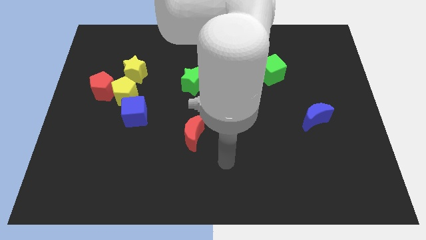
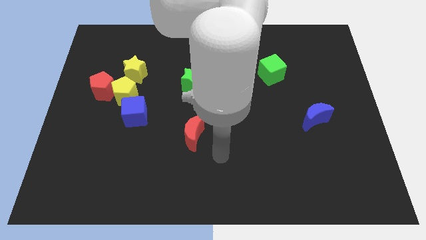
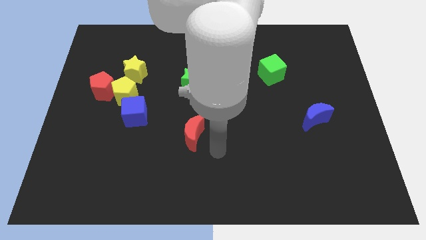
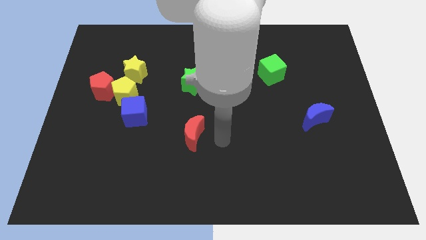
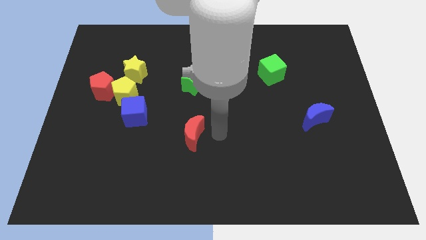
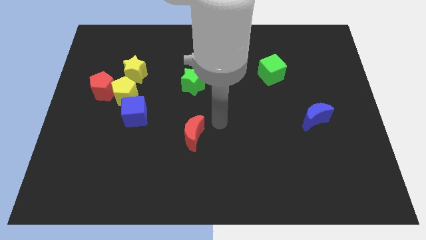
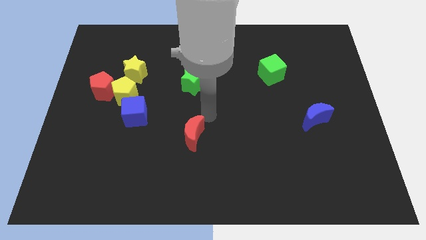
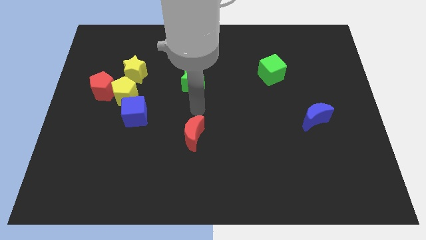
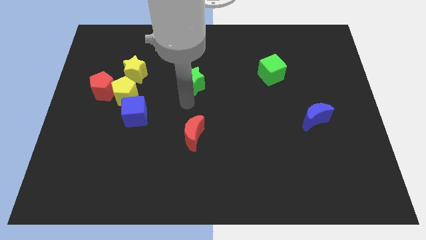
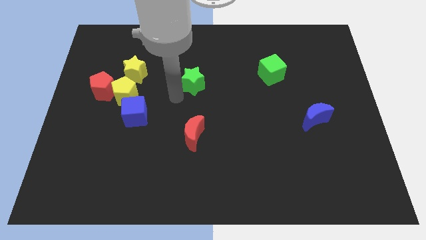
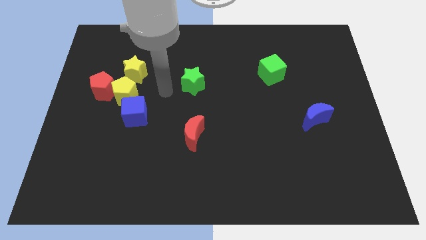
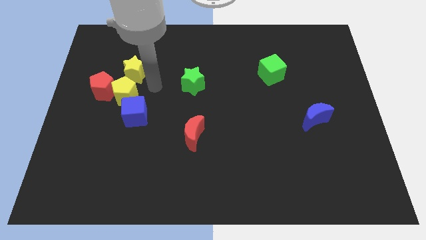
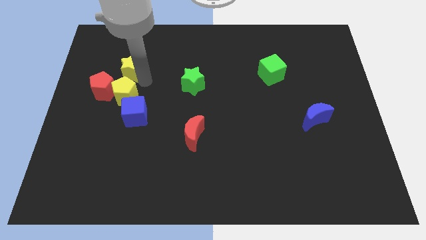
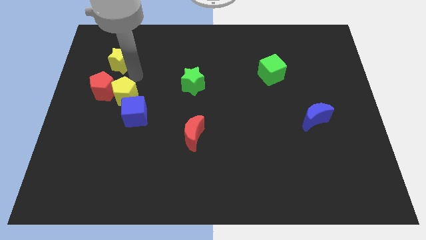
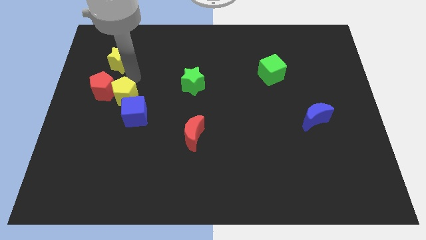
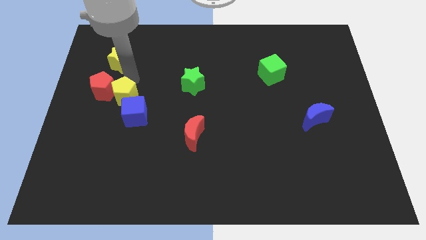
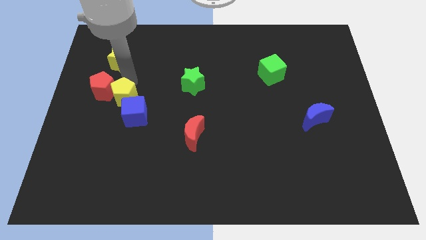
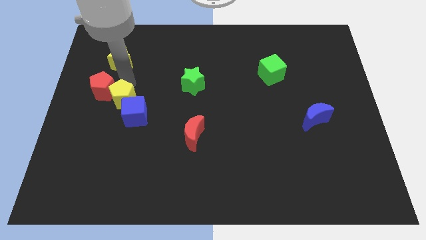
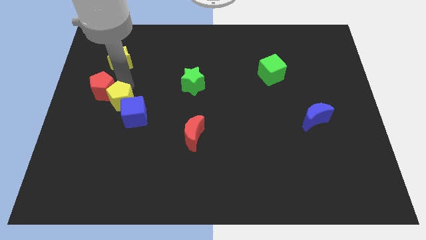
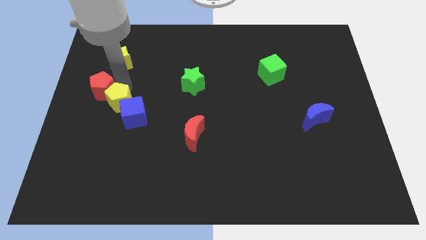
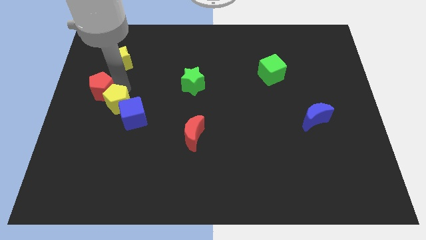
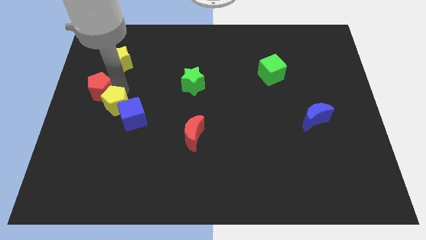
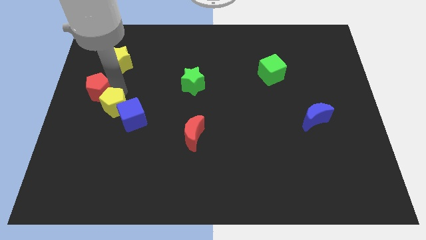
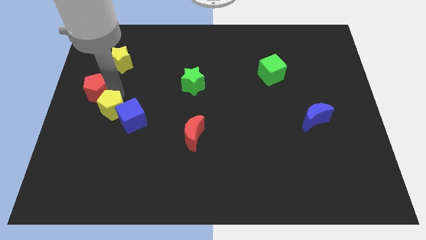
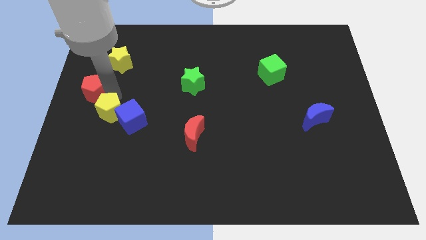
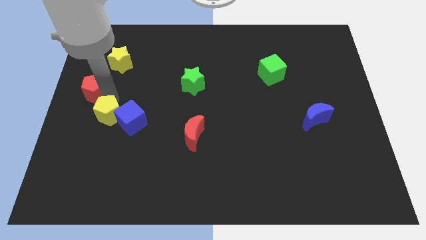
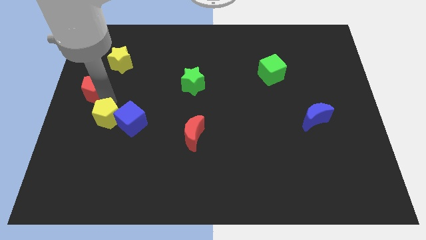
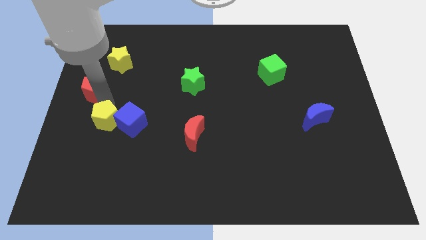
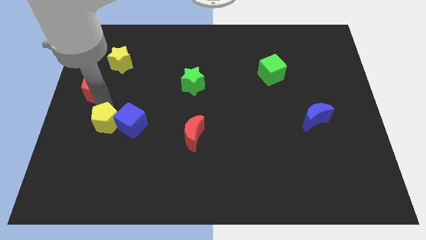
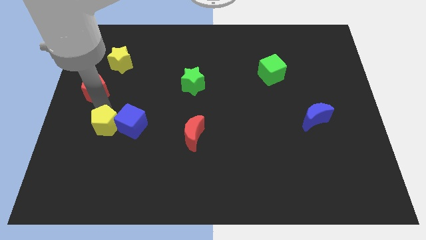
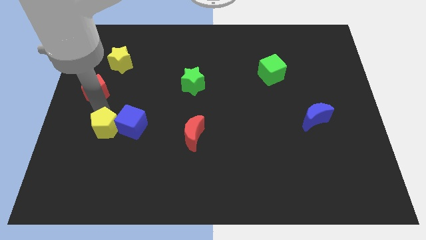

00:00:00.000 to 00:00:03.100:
separate the yellow pentagon from the red pentagon, blue cube, and yellow star

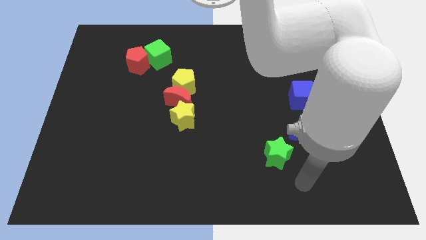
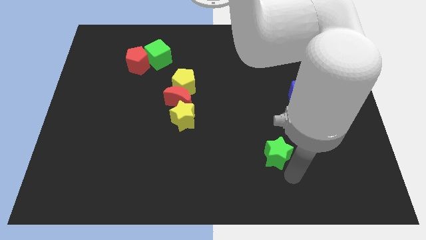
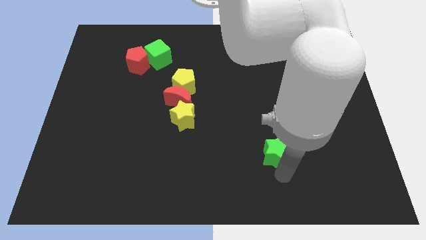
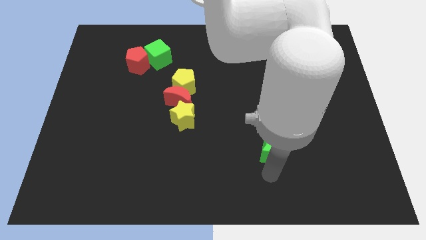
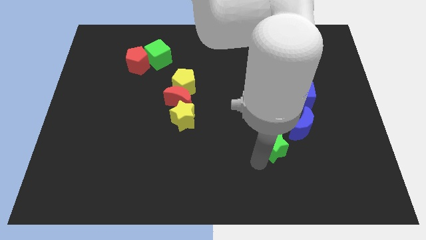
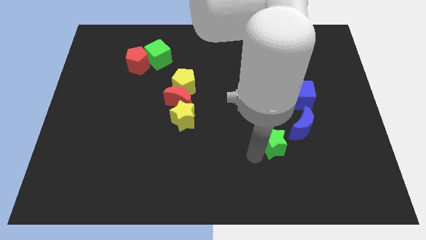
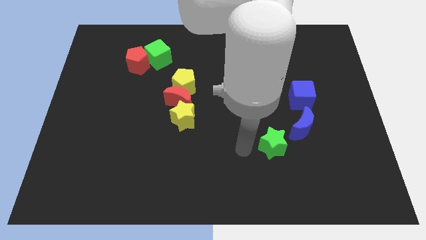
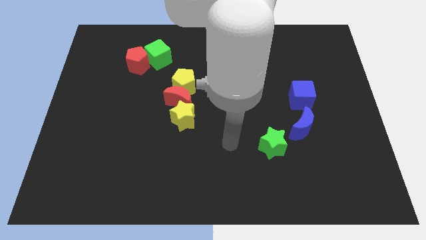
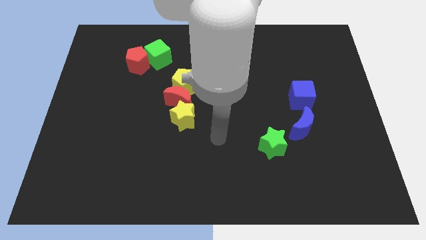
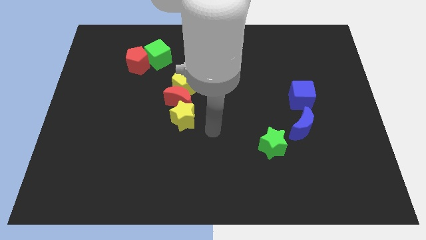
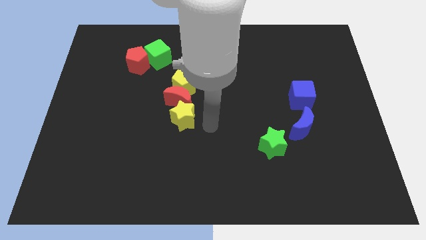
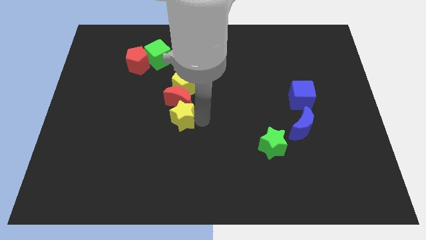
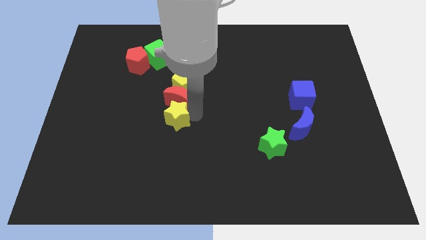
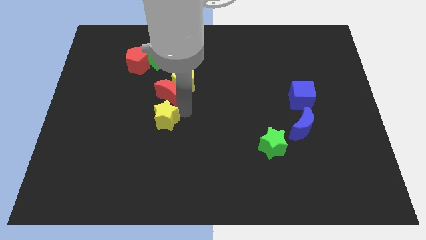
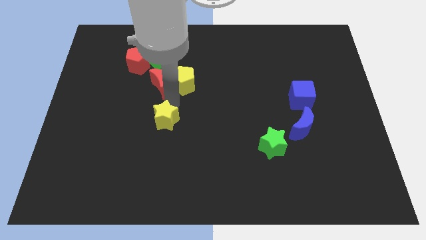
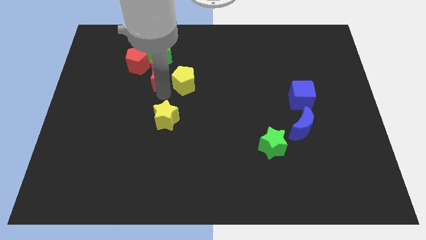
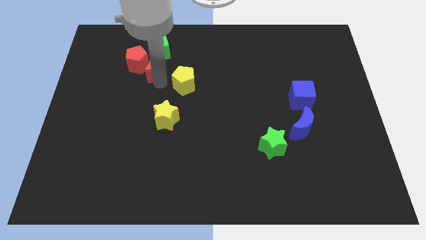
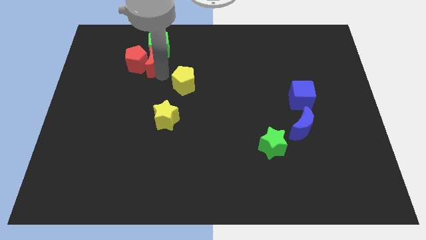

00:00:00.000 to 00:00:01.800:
move the yellow pentagon away from the red moon

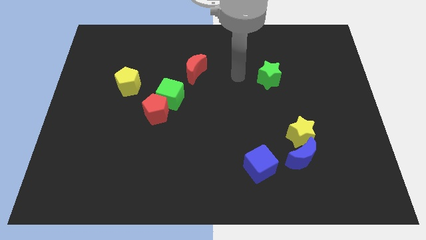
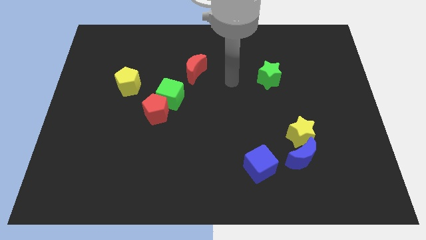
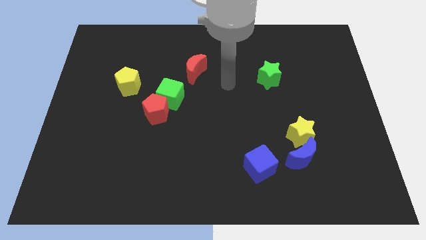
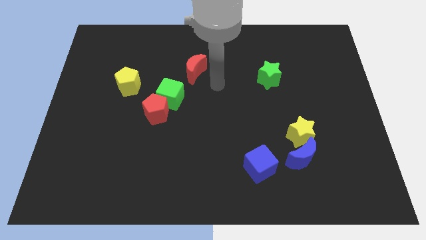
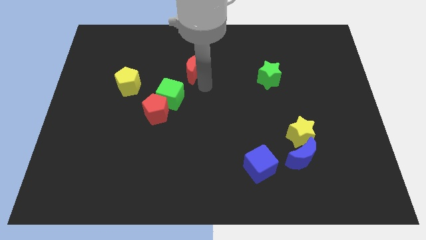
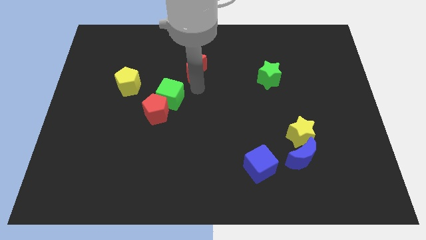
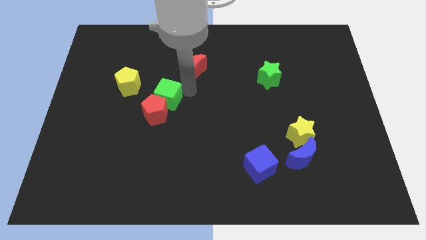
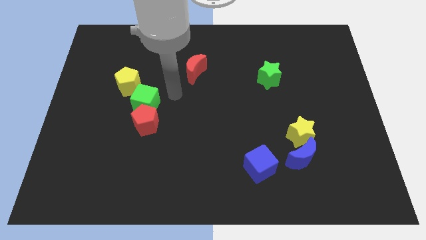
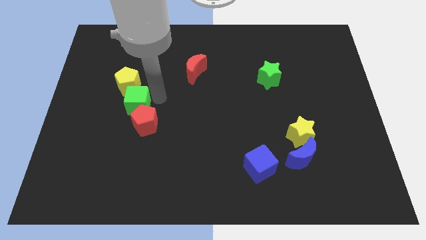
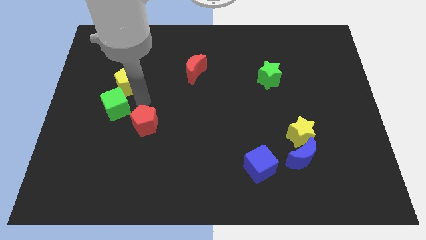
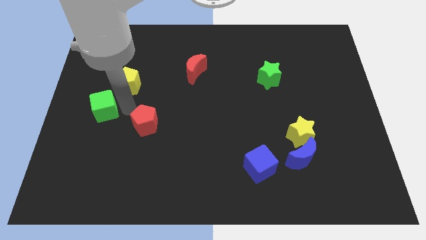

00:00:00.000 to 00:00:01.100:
pull the red pentagon apart from the green cube

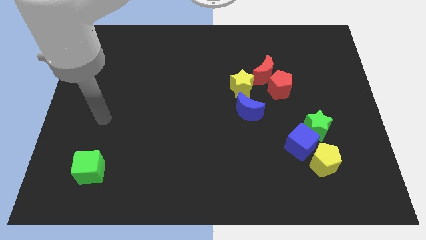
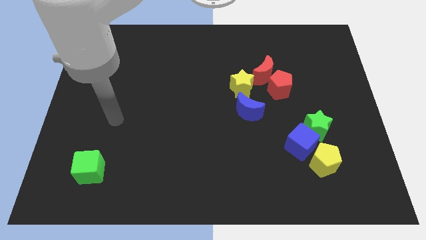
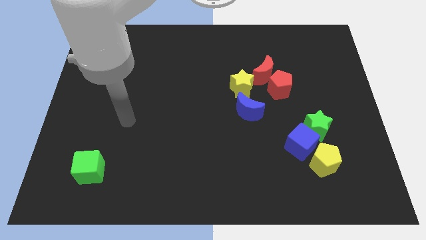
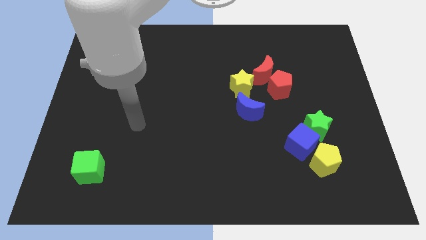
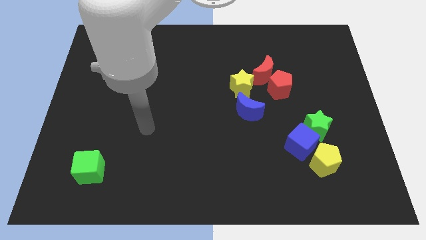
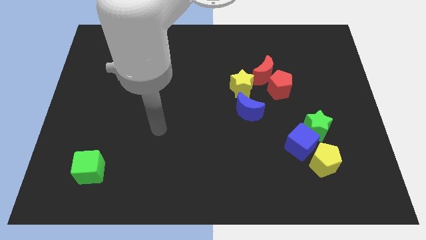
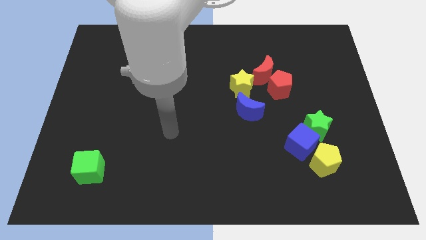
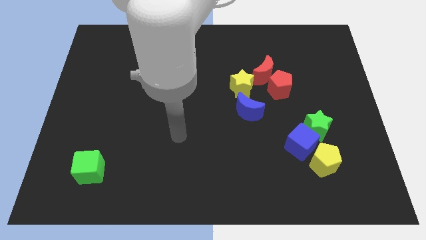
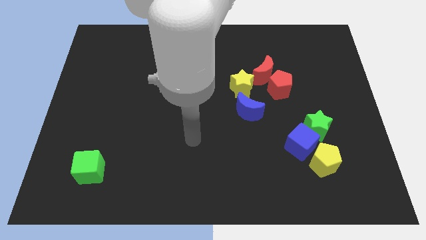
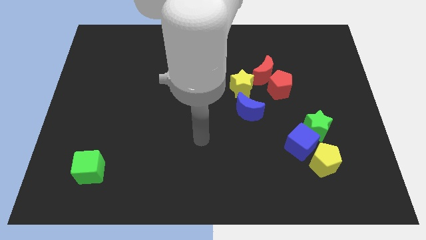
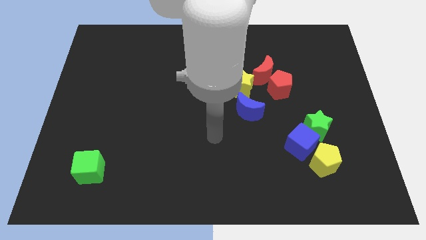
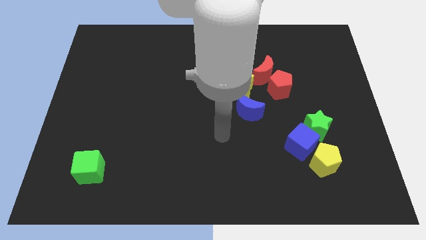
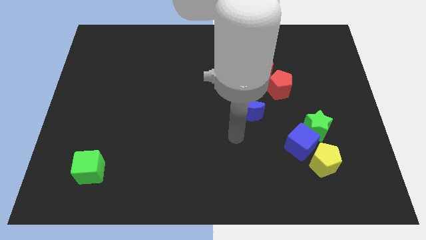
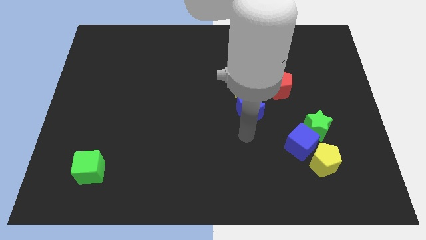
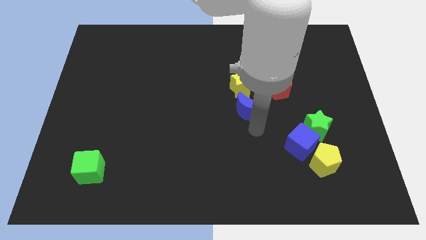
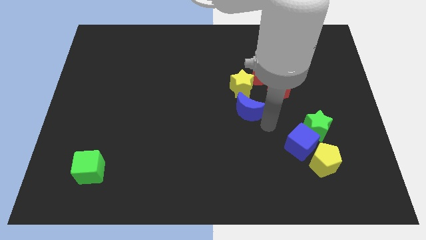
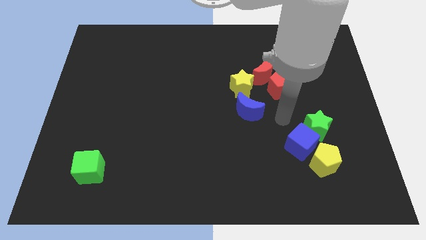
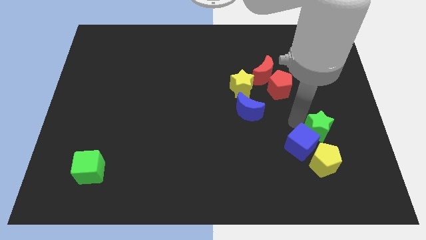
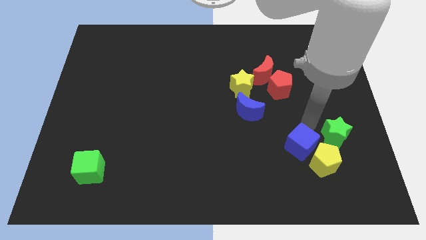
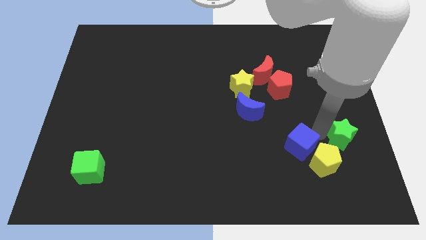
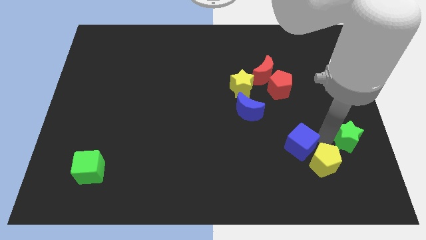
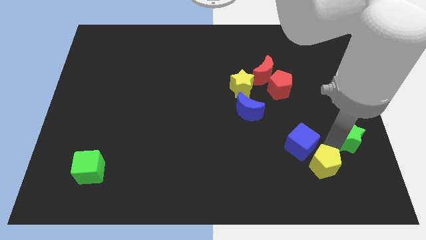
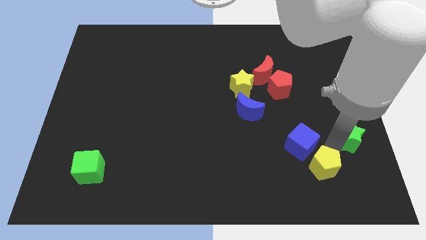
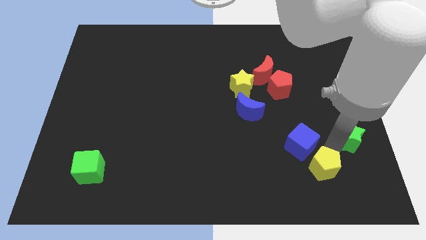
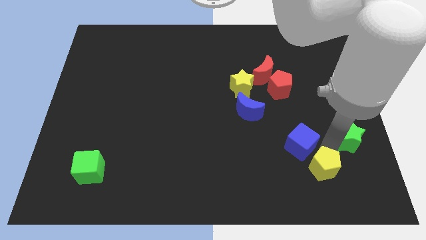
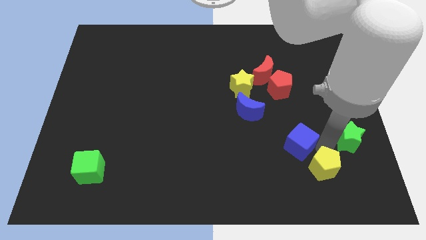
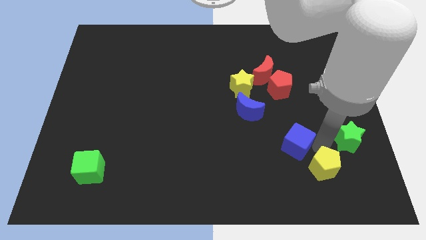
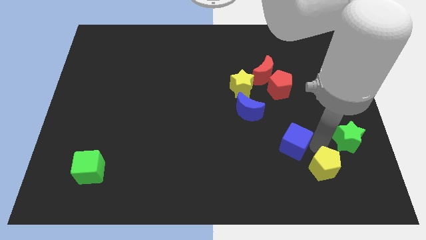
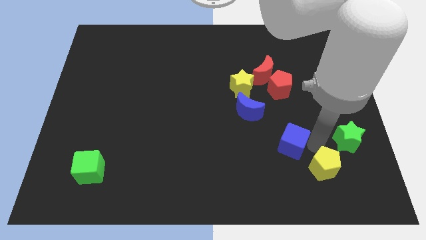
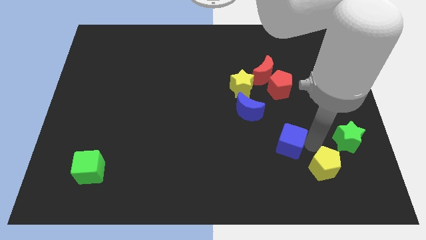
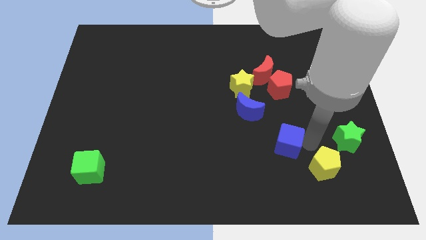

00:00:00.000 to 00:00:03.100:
move the blue cube away from the green star and yellow pentagon

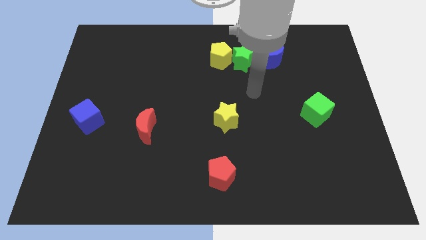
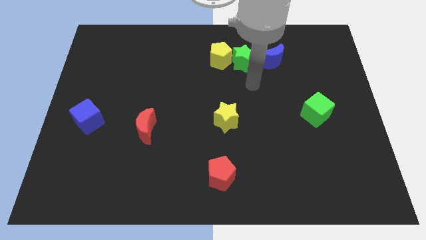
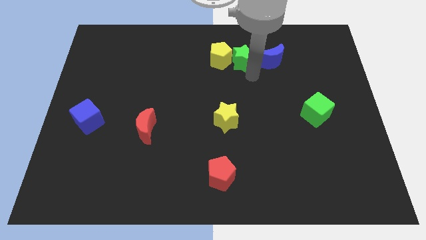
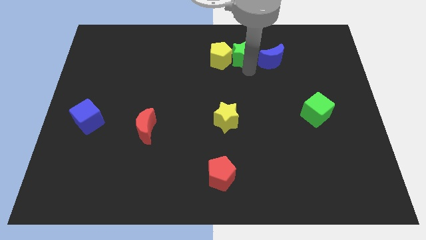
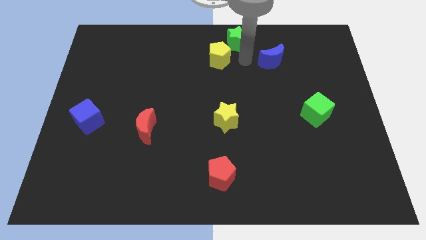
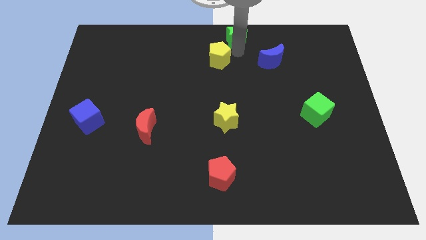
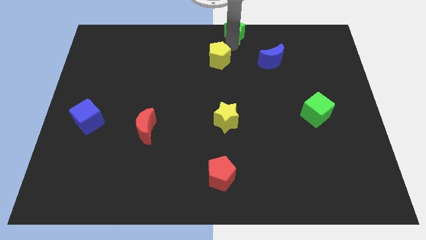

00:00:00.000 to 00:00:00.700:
separate the yellow pentagon from the green star
